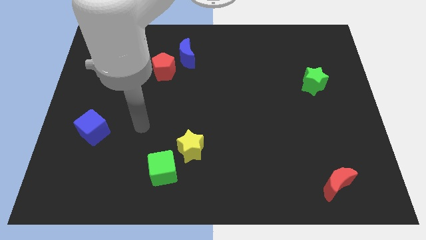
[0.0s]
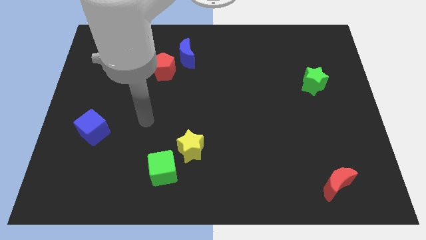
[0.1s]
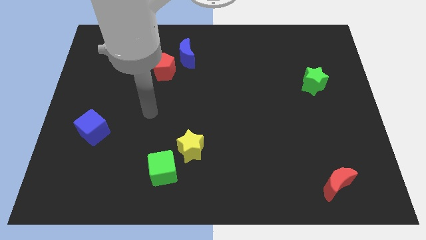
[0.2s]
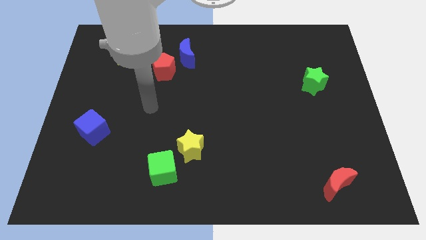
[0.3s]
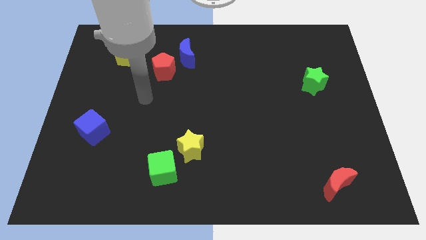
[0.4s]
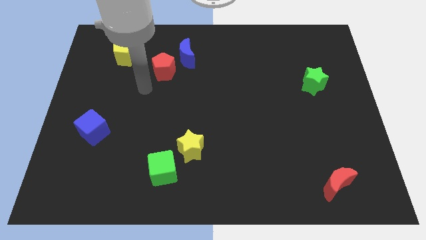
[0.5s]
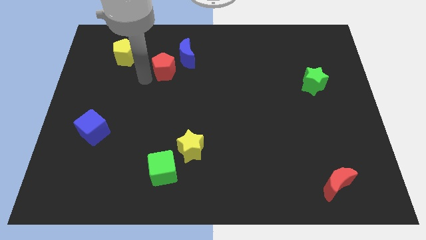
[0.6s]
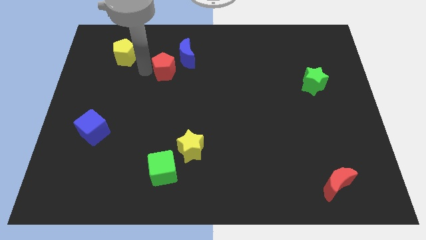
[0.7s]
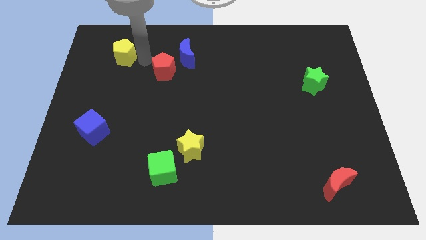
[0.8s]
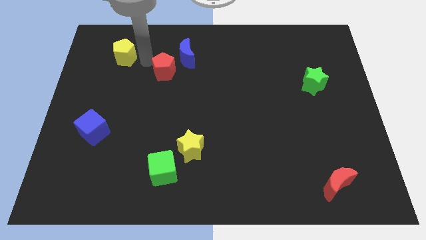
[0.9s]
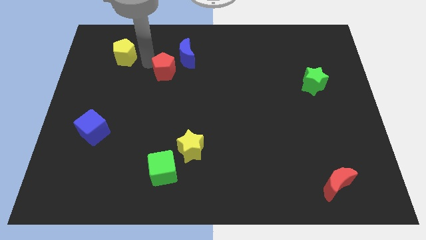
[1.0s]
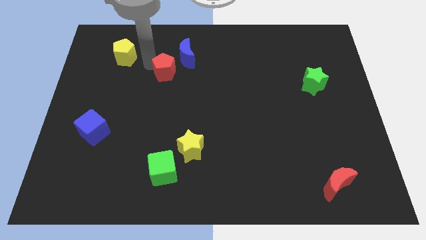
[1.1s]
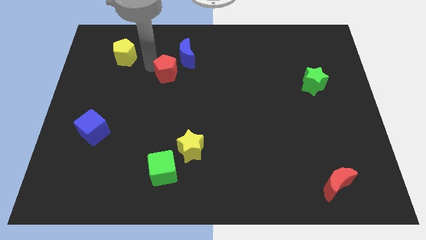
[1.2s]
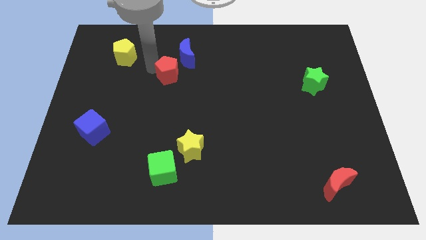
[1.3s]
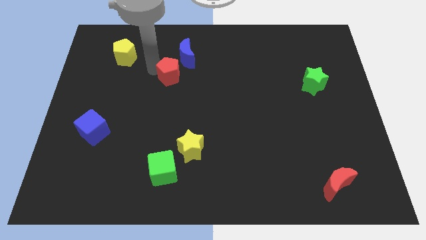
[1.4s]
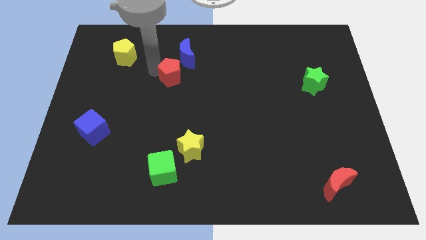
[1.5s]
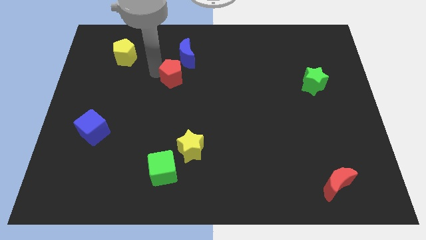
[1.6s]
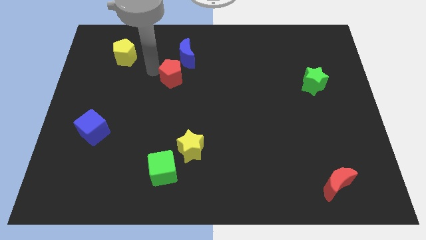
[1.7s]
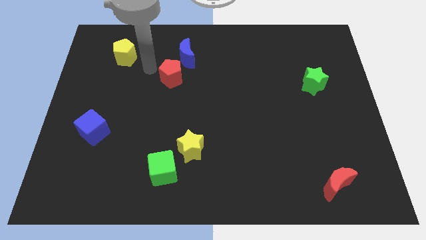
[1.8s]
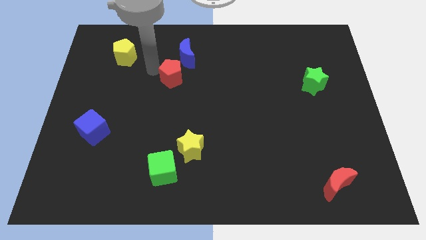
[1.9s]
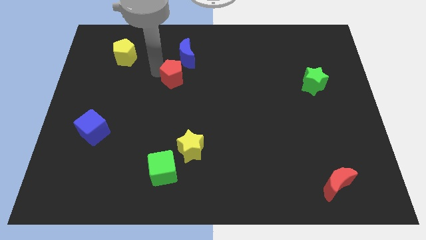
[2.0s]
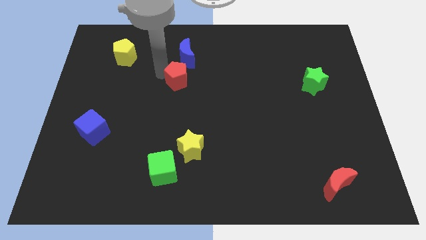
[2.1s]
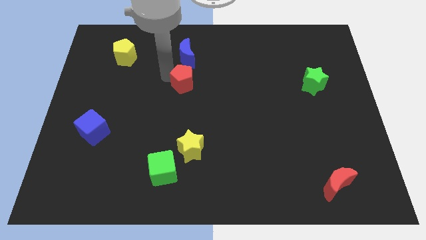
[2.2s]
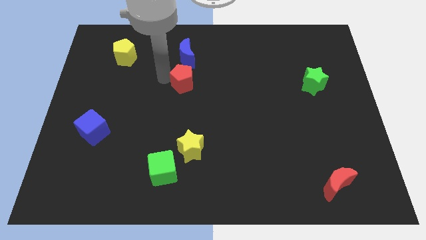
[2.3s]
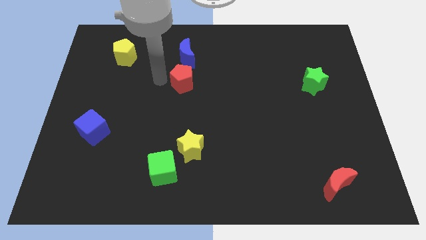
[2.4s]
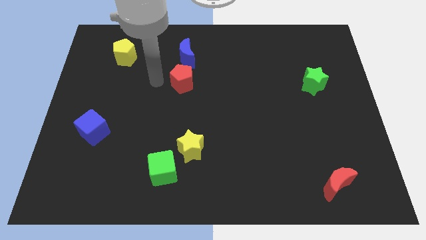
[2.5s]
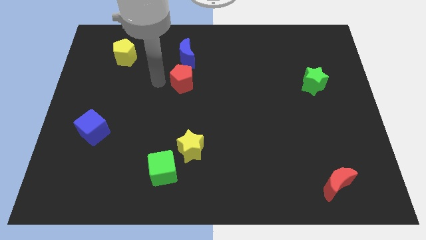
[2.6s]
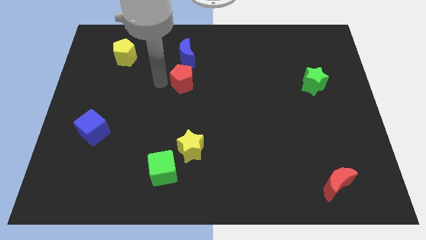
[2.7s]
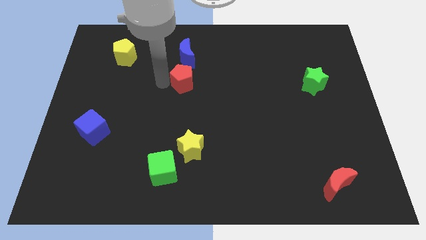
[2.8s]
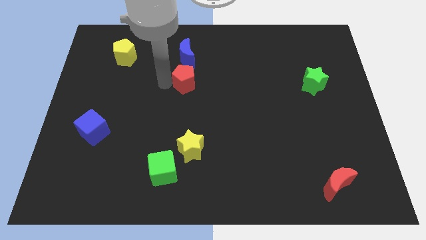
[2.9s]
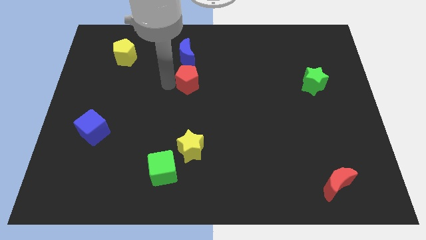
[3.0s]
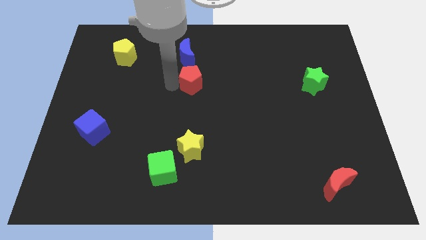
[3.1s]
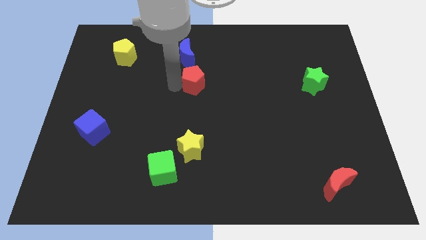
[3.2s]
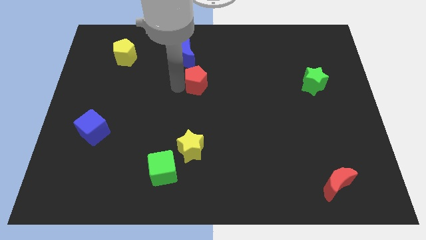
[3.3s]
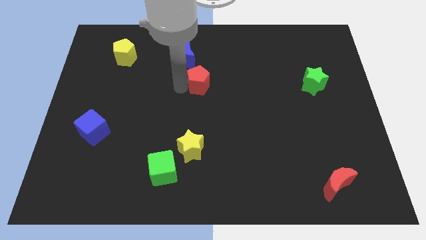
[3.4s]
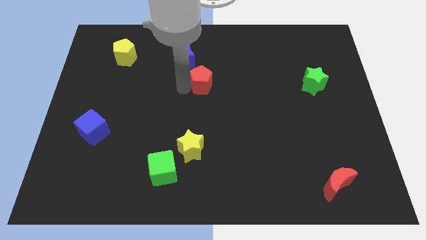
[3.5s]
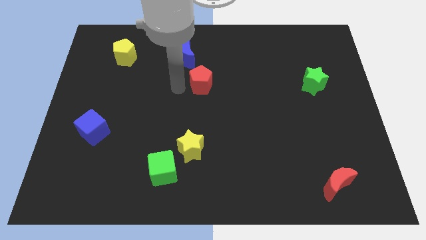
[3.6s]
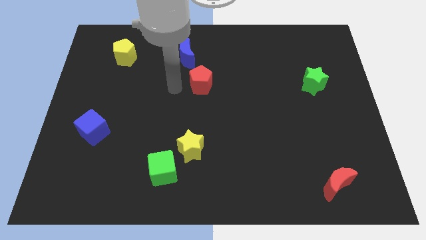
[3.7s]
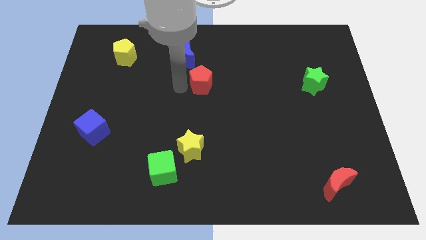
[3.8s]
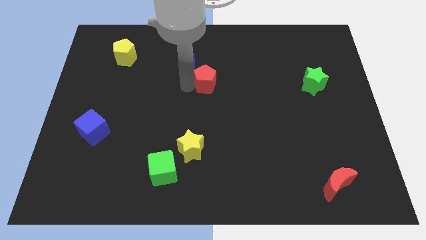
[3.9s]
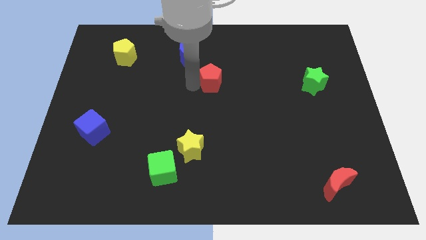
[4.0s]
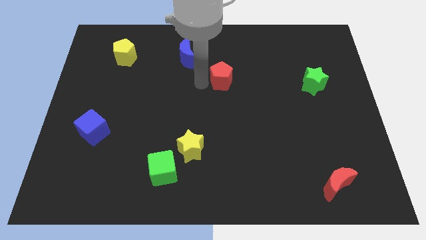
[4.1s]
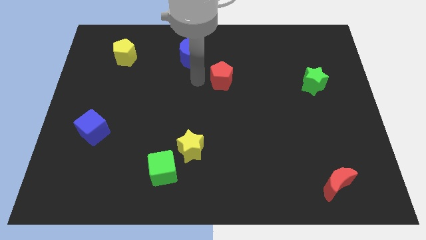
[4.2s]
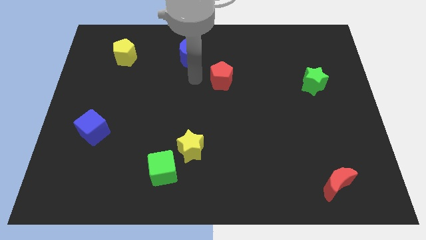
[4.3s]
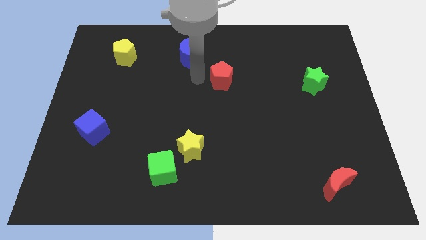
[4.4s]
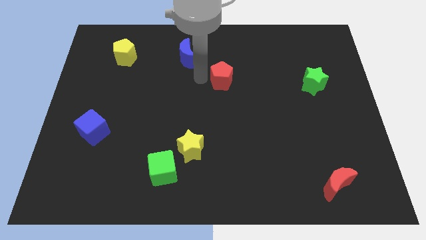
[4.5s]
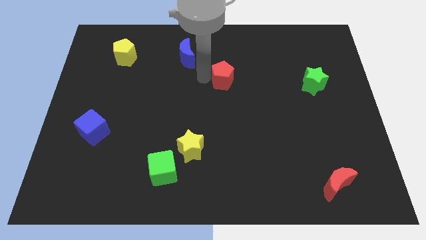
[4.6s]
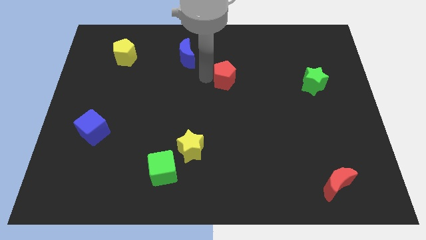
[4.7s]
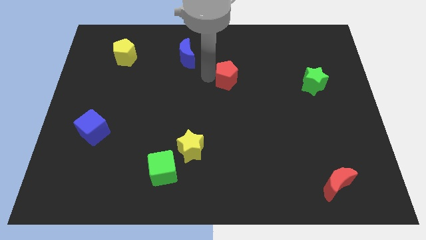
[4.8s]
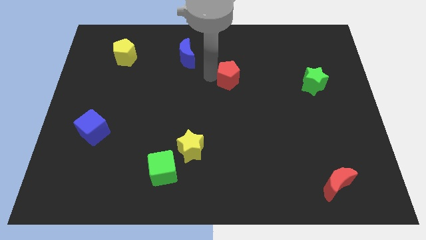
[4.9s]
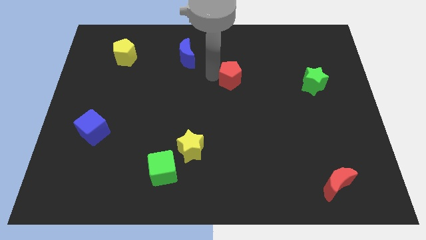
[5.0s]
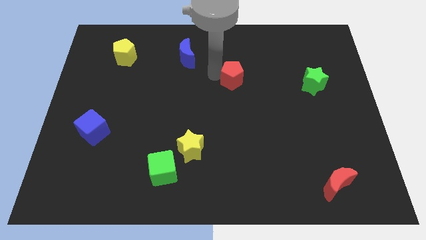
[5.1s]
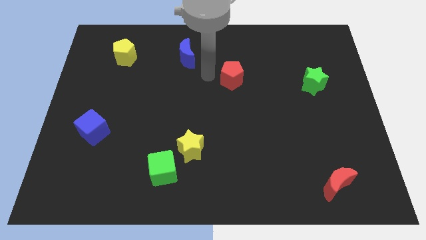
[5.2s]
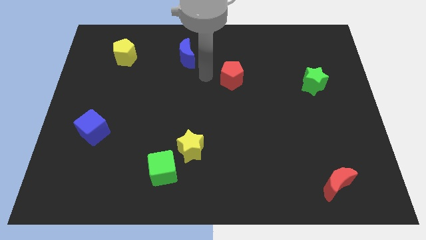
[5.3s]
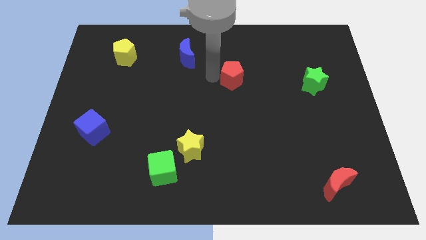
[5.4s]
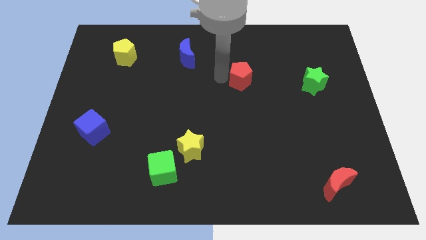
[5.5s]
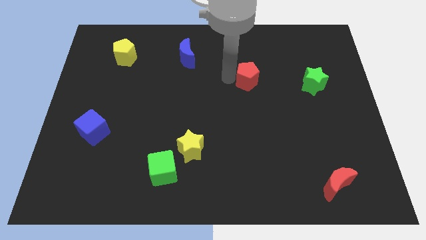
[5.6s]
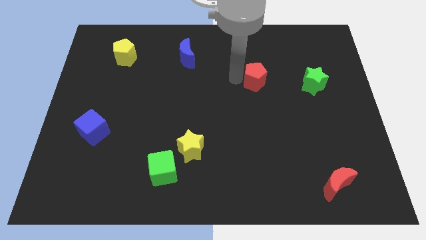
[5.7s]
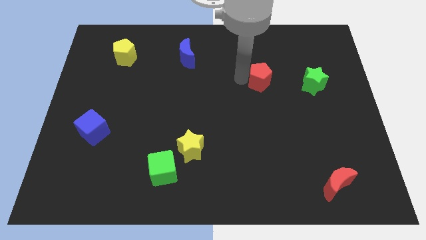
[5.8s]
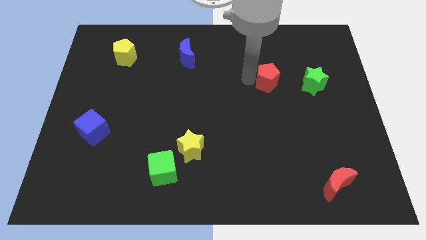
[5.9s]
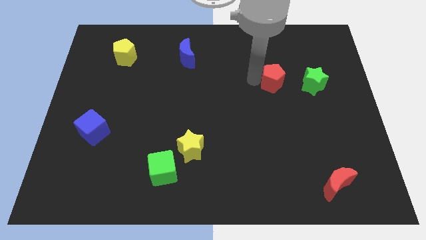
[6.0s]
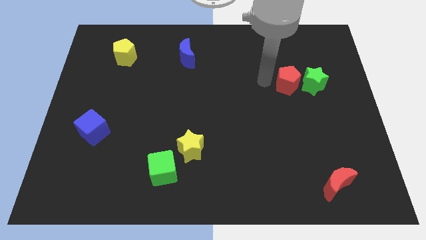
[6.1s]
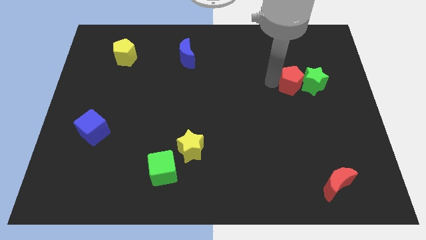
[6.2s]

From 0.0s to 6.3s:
move the red pentagon next to the green star

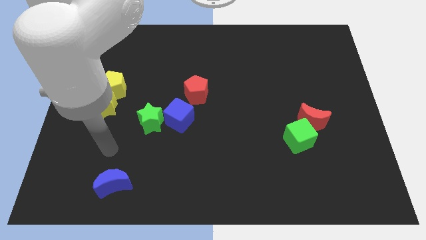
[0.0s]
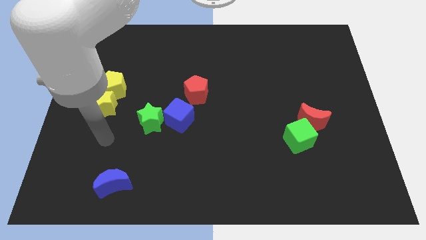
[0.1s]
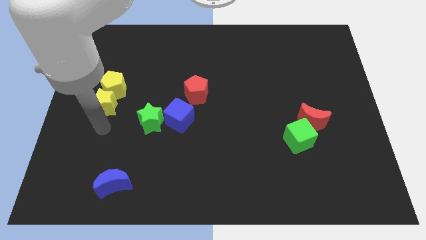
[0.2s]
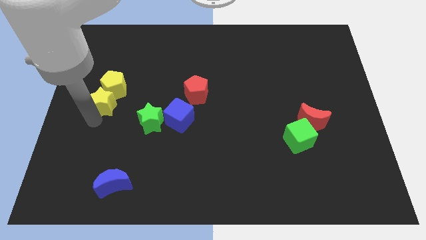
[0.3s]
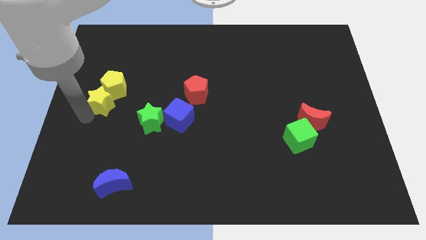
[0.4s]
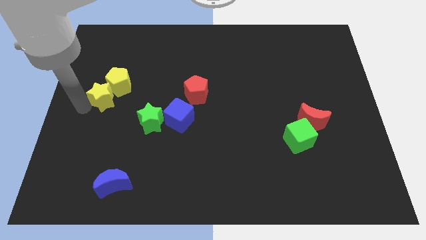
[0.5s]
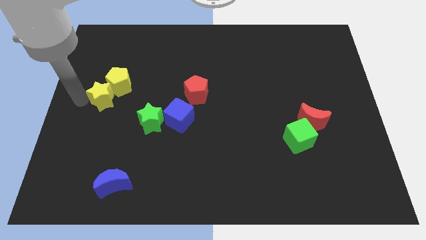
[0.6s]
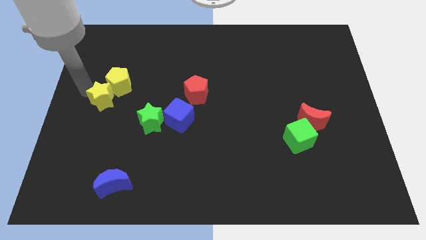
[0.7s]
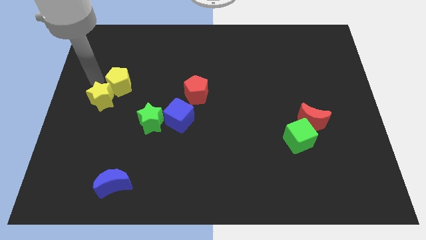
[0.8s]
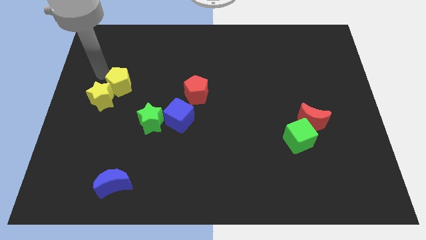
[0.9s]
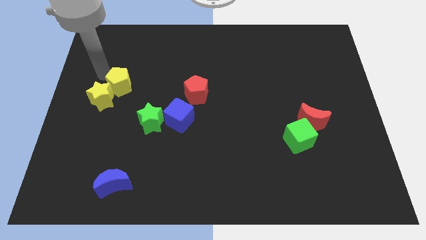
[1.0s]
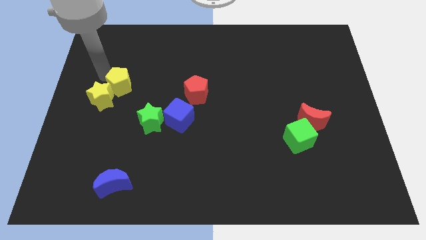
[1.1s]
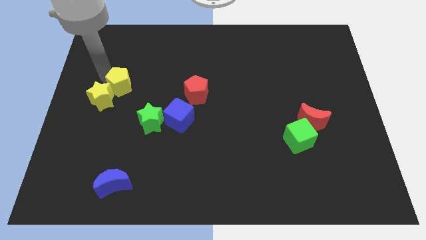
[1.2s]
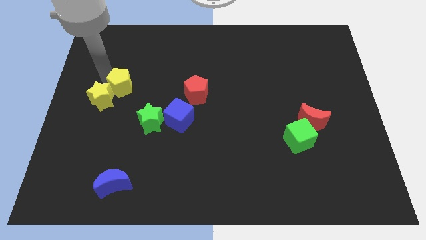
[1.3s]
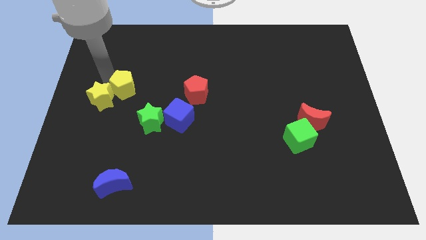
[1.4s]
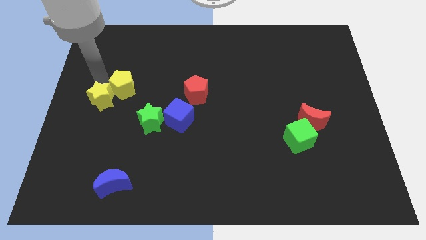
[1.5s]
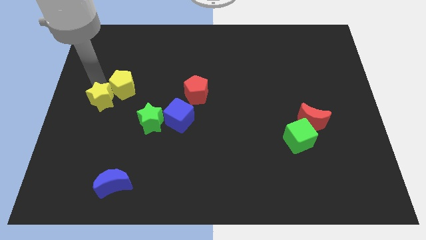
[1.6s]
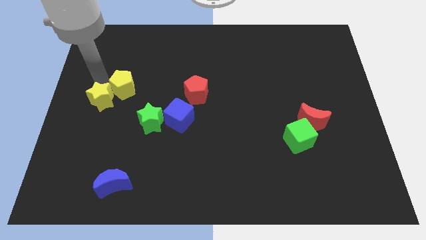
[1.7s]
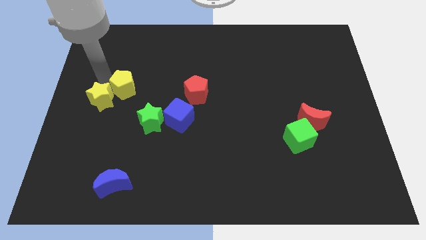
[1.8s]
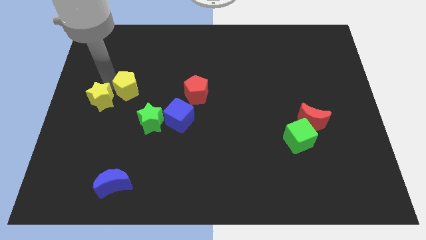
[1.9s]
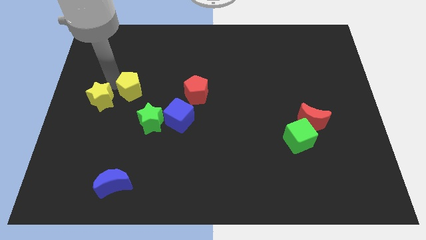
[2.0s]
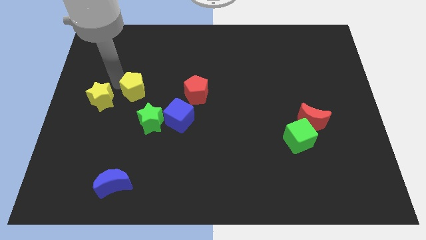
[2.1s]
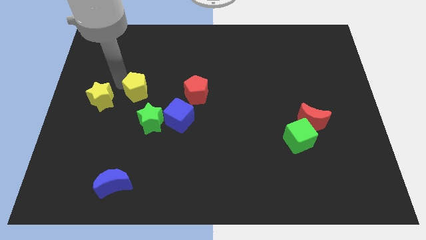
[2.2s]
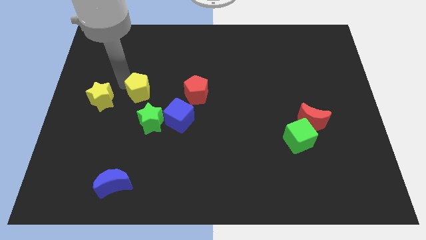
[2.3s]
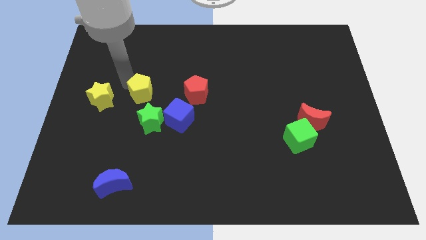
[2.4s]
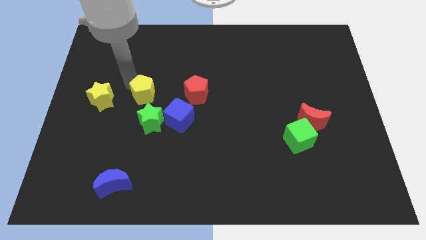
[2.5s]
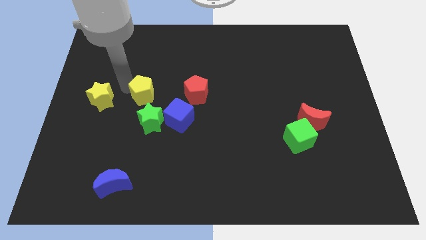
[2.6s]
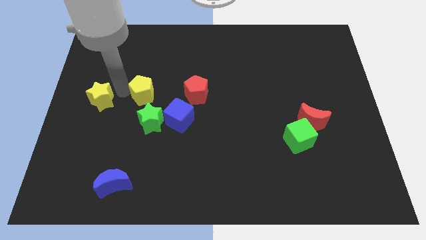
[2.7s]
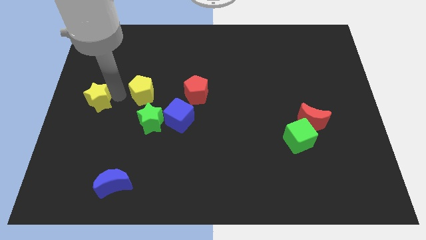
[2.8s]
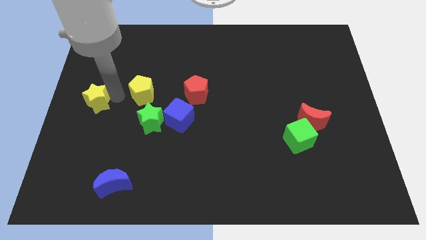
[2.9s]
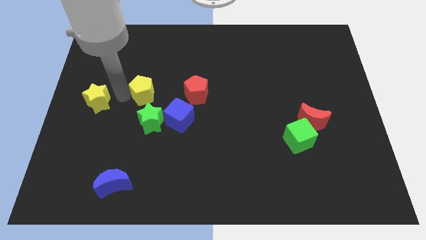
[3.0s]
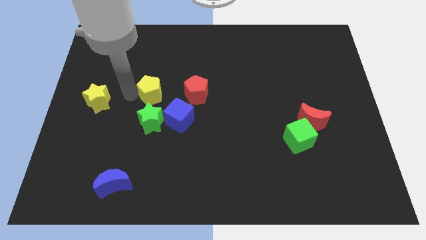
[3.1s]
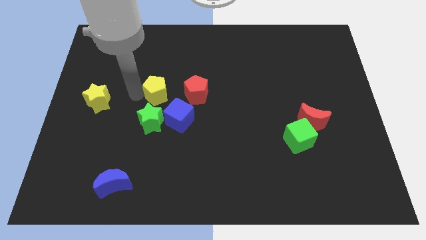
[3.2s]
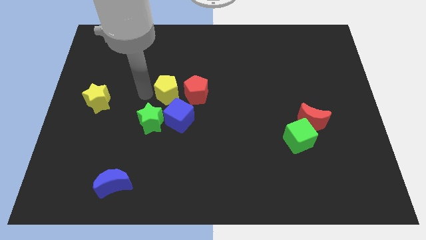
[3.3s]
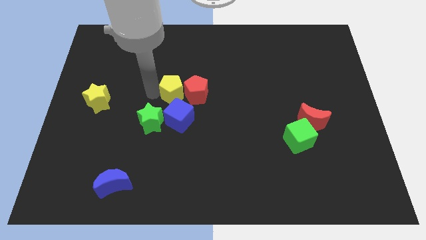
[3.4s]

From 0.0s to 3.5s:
slide the yellow pentagon next to the red pentagon
